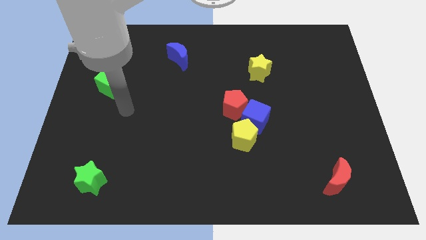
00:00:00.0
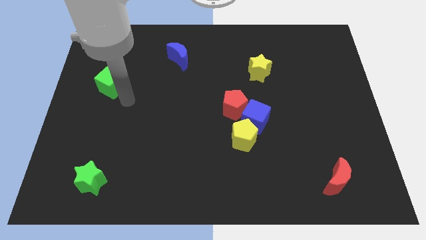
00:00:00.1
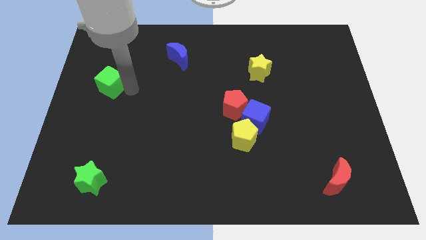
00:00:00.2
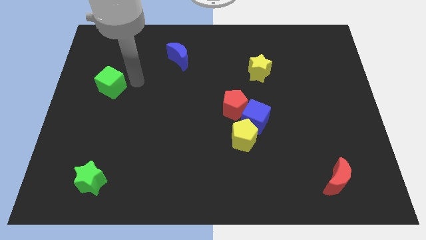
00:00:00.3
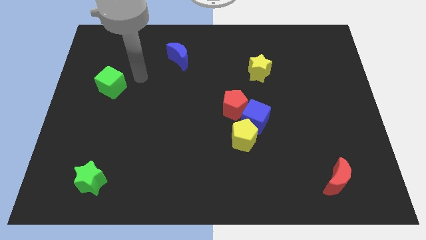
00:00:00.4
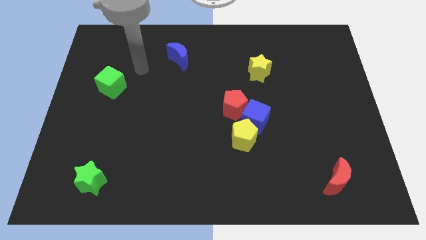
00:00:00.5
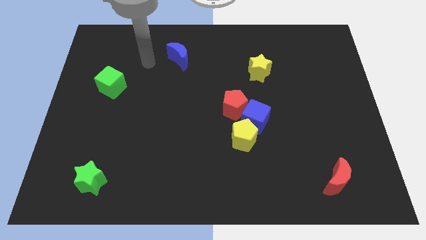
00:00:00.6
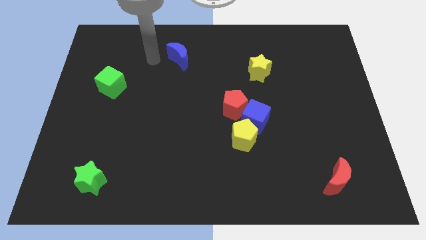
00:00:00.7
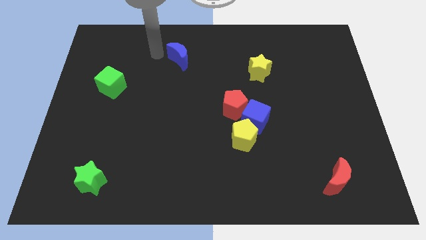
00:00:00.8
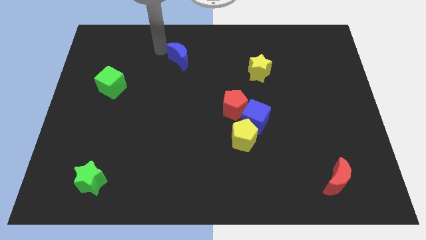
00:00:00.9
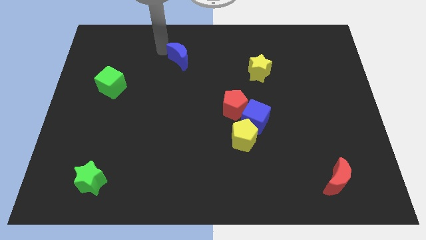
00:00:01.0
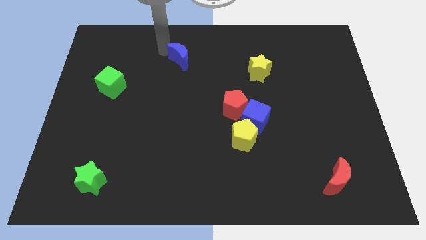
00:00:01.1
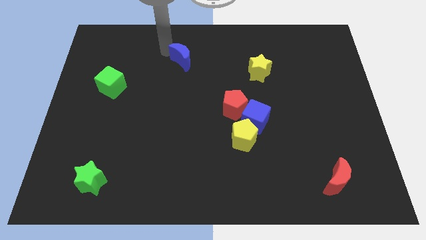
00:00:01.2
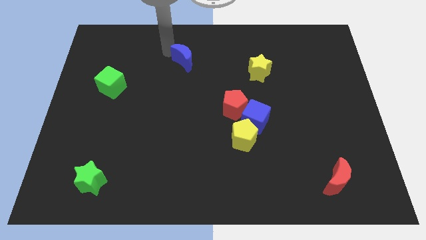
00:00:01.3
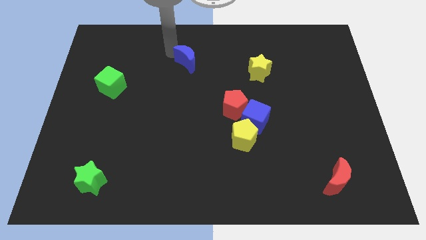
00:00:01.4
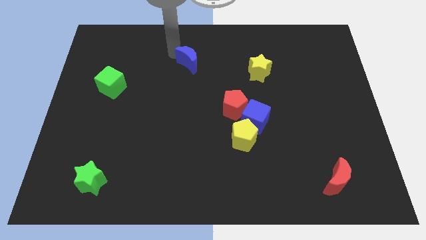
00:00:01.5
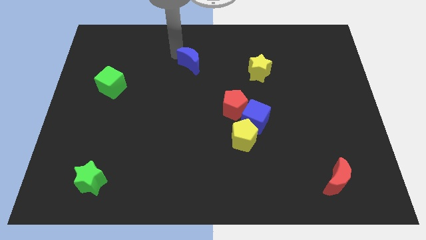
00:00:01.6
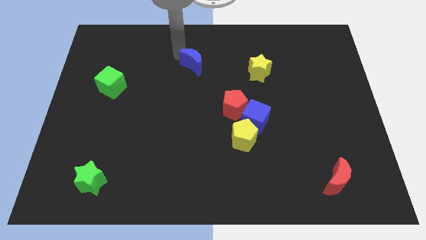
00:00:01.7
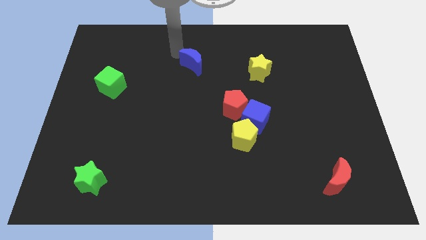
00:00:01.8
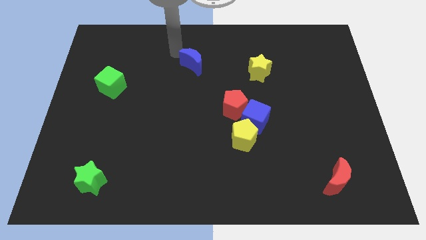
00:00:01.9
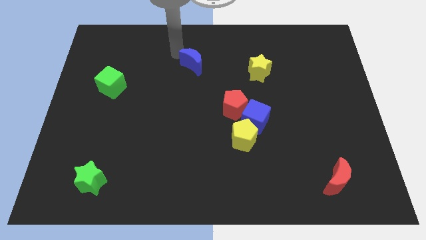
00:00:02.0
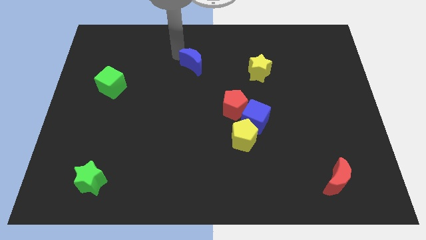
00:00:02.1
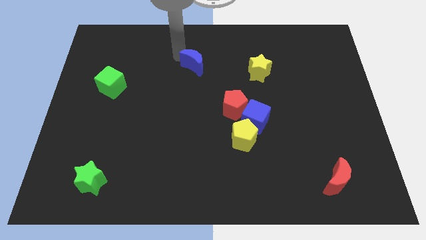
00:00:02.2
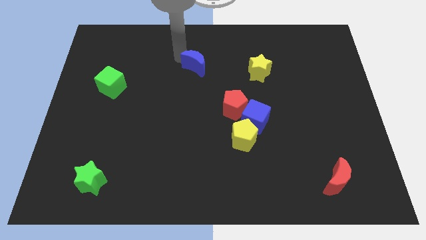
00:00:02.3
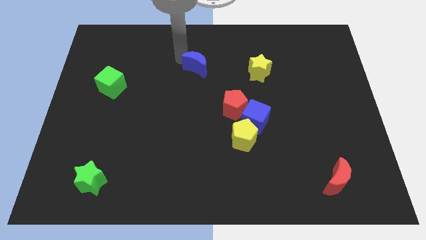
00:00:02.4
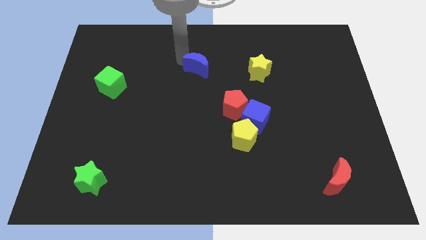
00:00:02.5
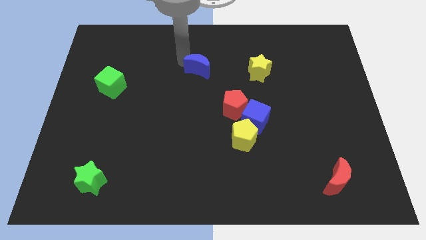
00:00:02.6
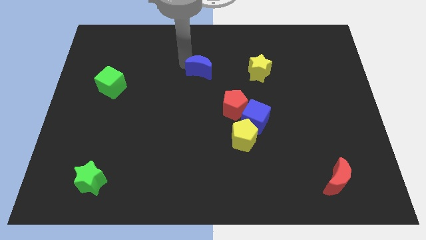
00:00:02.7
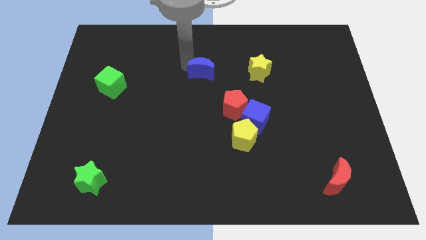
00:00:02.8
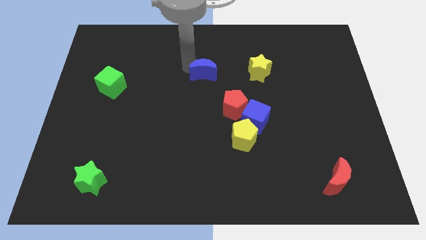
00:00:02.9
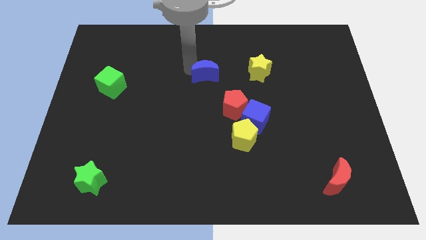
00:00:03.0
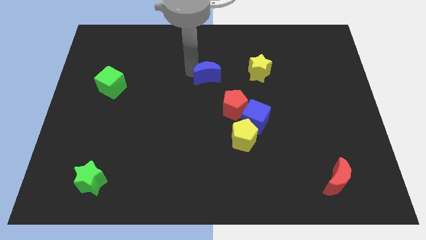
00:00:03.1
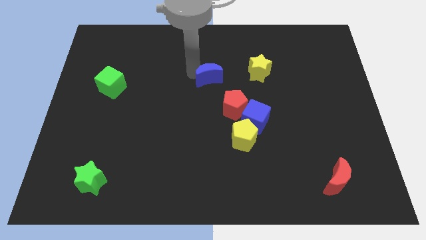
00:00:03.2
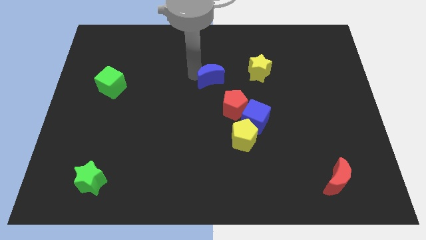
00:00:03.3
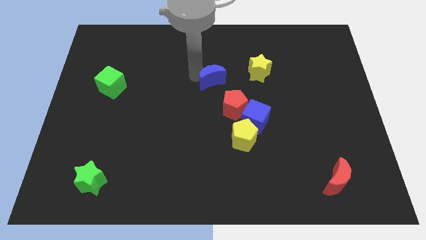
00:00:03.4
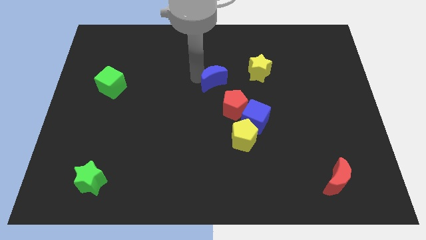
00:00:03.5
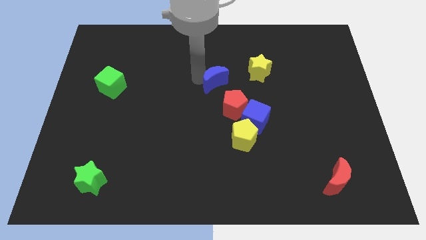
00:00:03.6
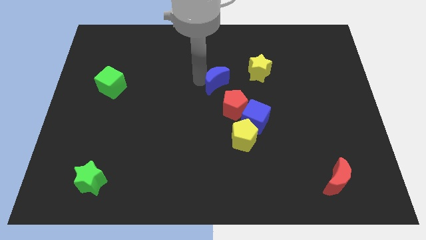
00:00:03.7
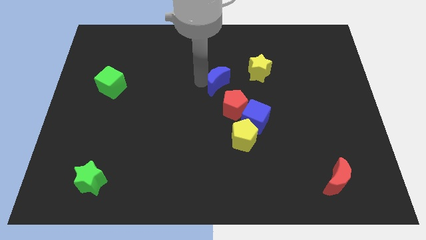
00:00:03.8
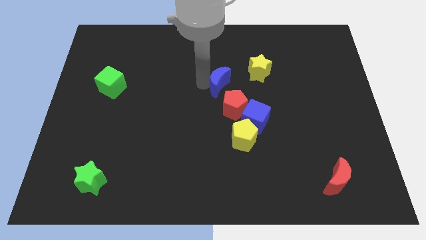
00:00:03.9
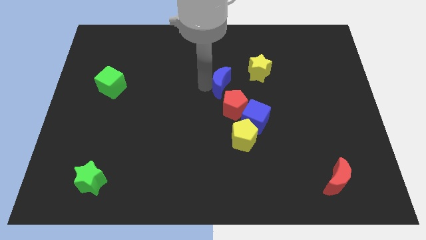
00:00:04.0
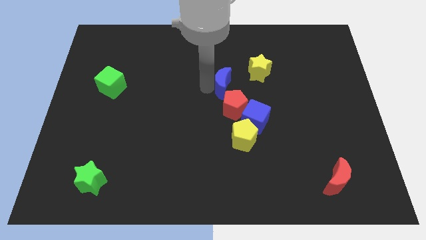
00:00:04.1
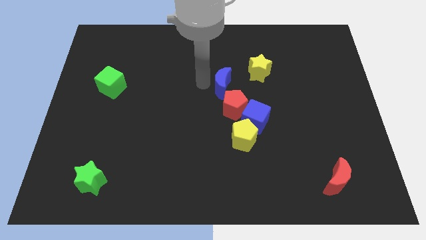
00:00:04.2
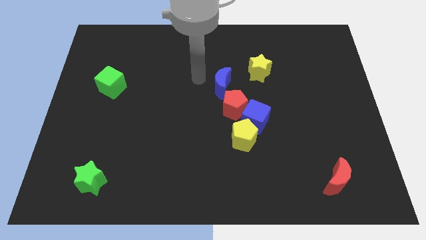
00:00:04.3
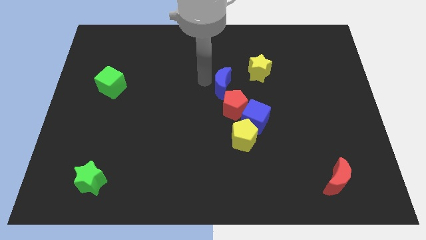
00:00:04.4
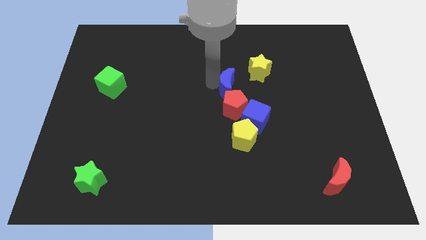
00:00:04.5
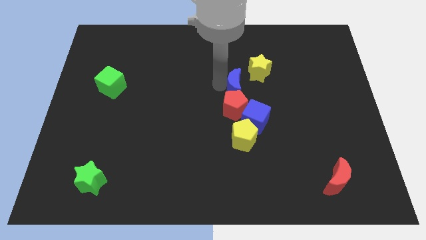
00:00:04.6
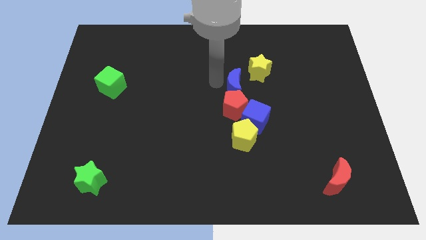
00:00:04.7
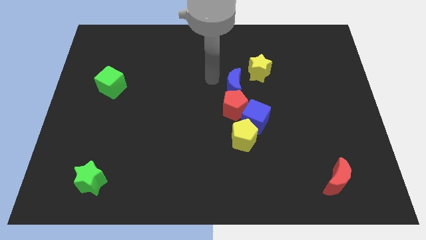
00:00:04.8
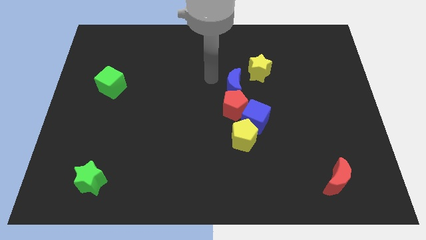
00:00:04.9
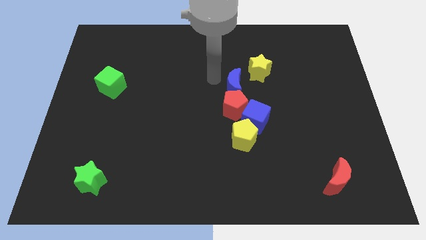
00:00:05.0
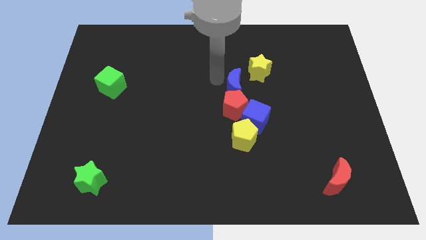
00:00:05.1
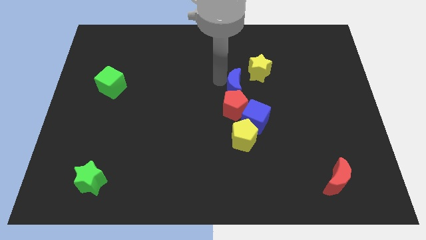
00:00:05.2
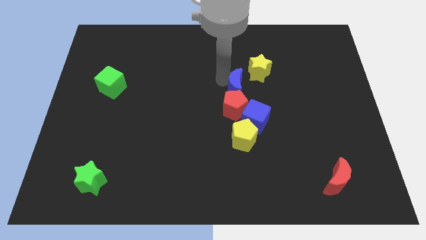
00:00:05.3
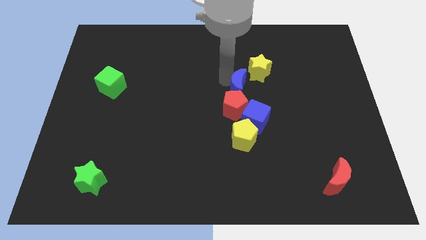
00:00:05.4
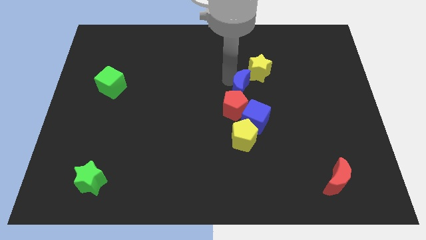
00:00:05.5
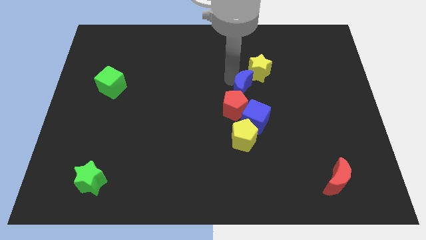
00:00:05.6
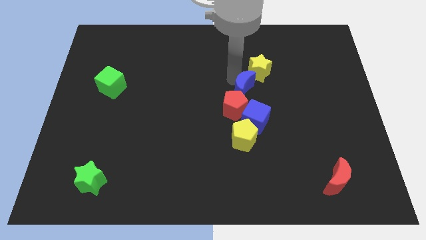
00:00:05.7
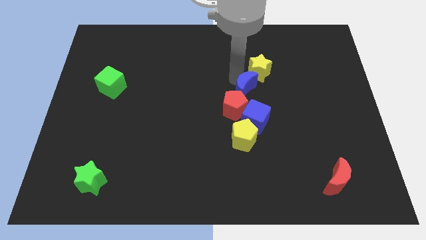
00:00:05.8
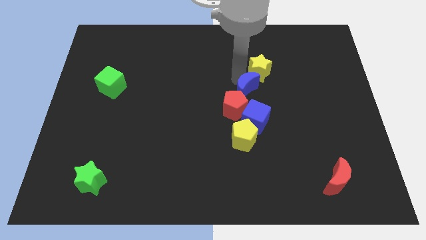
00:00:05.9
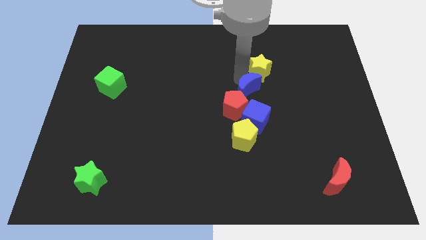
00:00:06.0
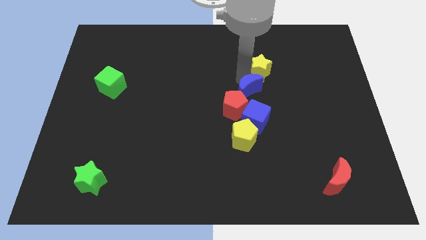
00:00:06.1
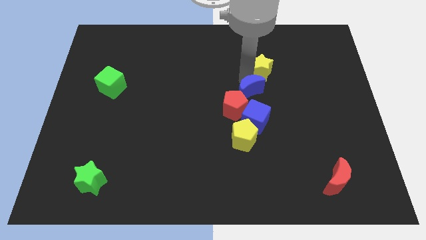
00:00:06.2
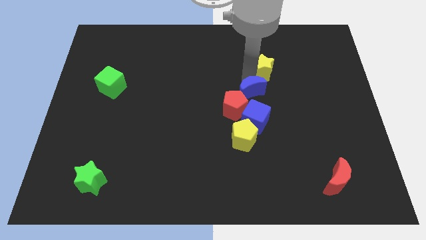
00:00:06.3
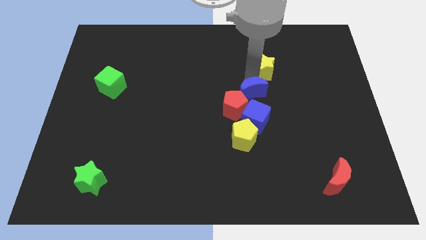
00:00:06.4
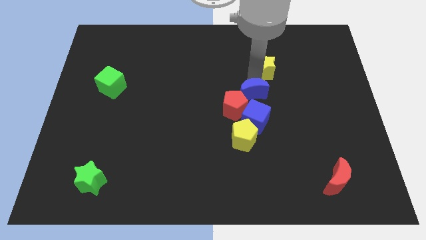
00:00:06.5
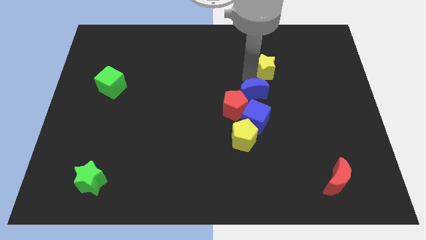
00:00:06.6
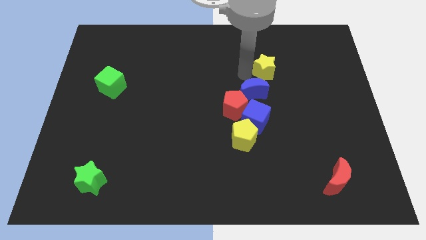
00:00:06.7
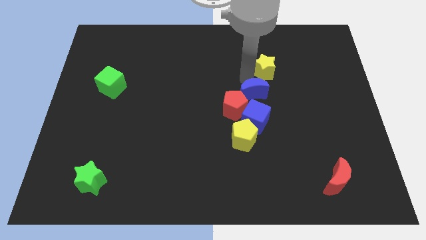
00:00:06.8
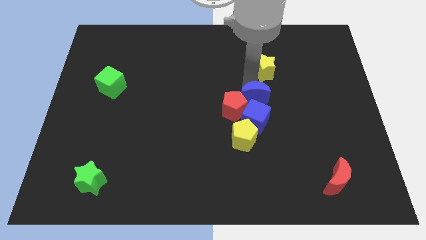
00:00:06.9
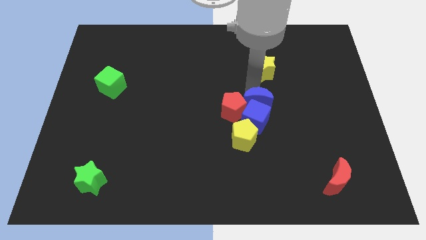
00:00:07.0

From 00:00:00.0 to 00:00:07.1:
slide the blue moon to the top right of the yellow pentagon
